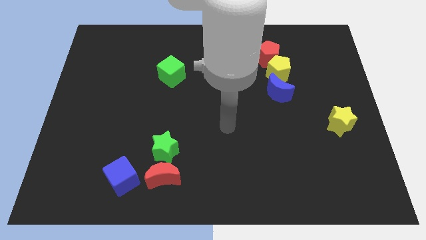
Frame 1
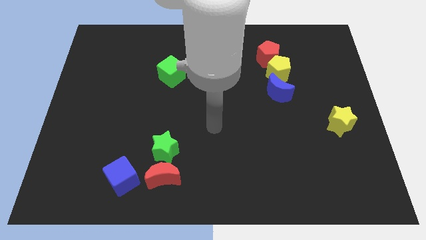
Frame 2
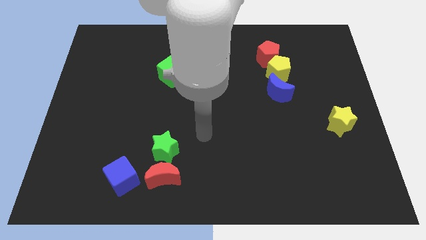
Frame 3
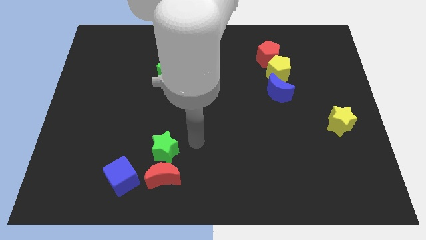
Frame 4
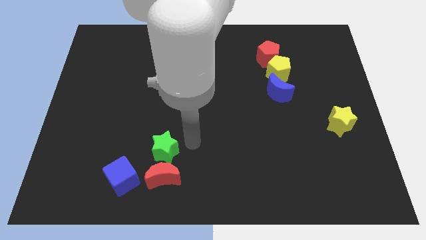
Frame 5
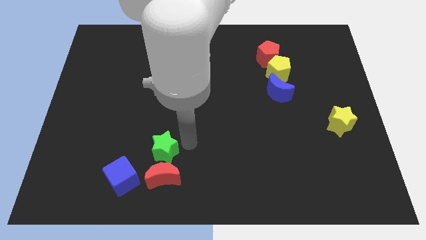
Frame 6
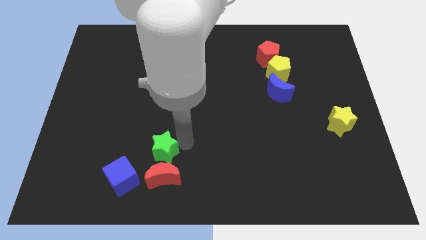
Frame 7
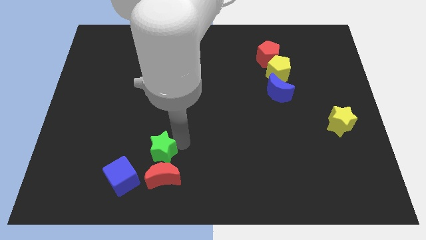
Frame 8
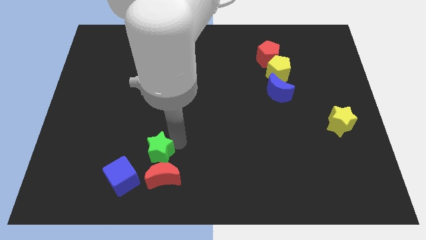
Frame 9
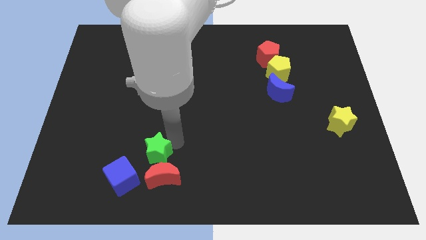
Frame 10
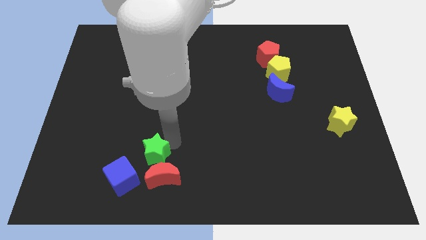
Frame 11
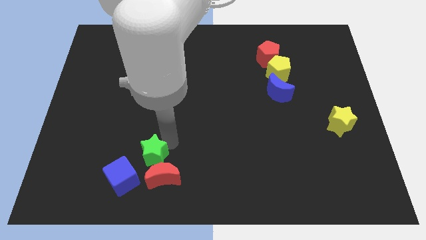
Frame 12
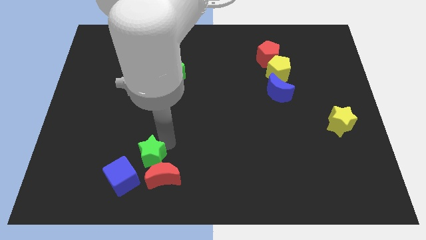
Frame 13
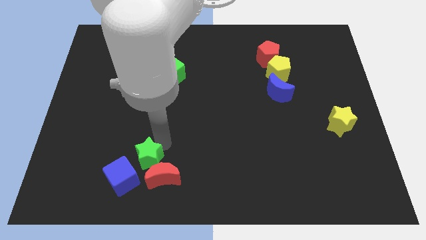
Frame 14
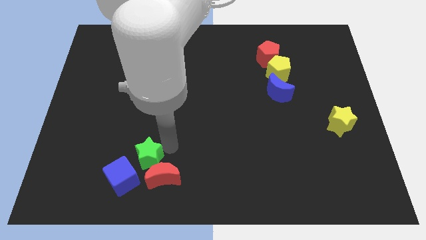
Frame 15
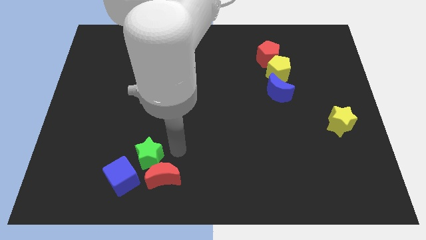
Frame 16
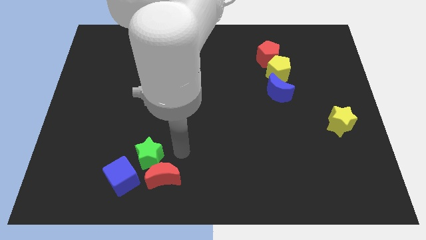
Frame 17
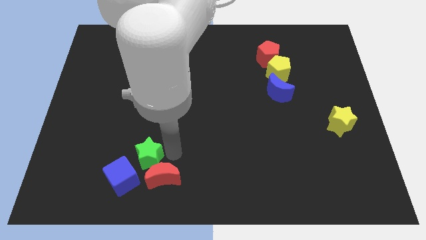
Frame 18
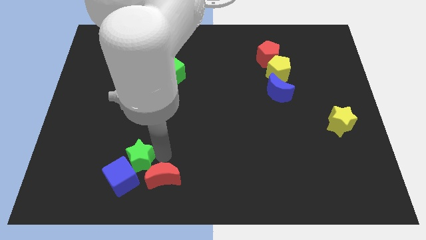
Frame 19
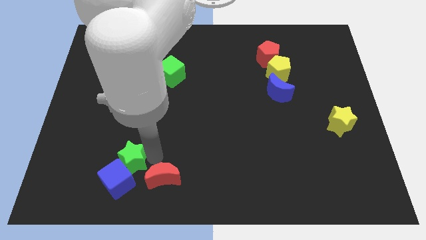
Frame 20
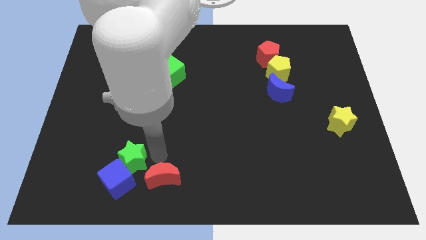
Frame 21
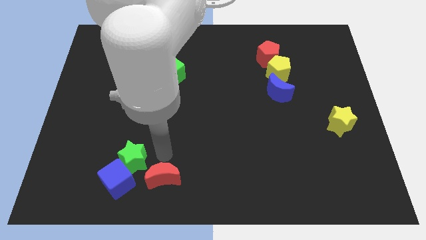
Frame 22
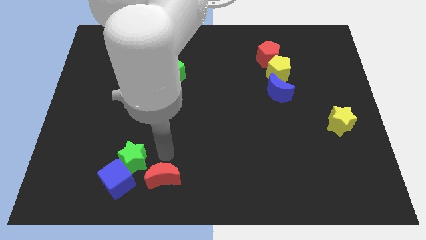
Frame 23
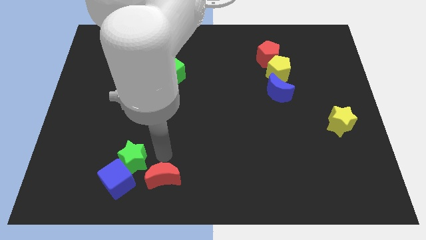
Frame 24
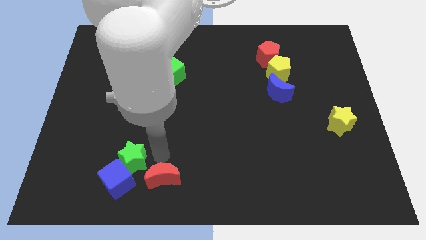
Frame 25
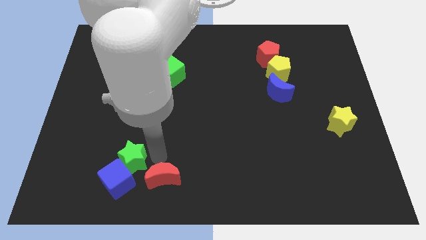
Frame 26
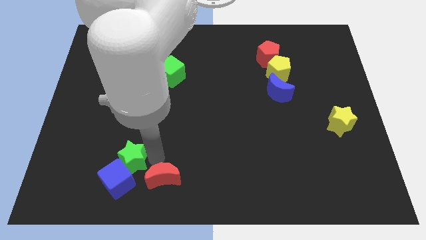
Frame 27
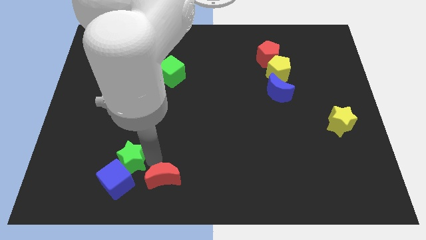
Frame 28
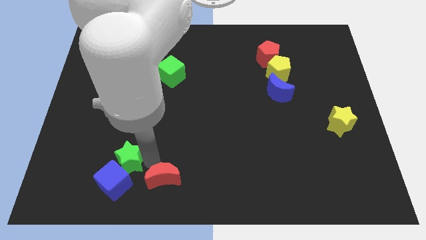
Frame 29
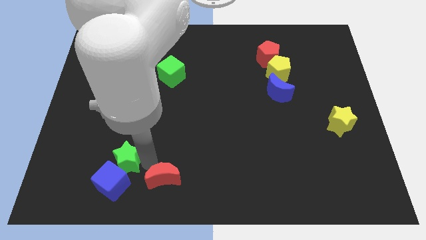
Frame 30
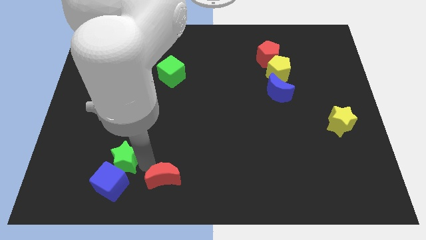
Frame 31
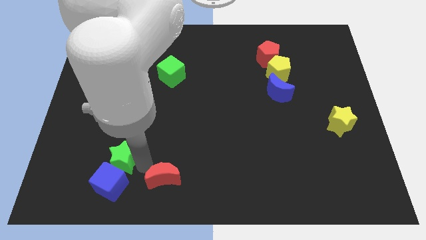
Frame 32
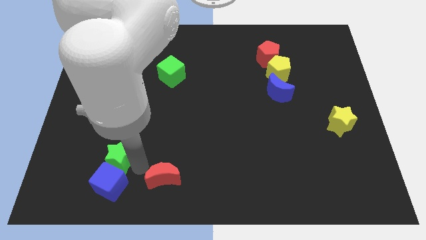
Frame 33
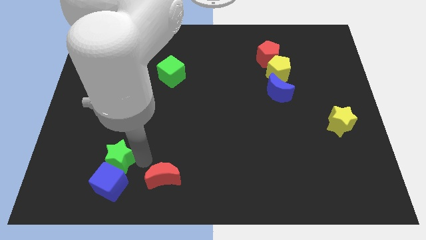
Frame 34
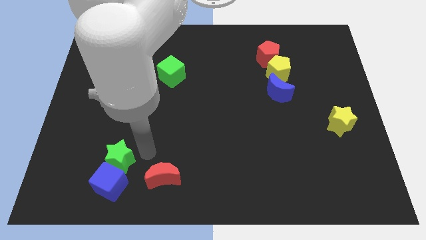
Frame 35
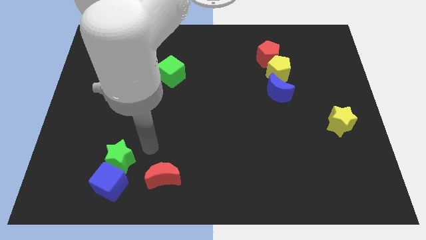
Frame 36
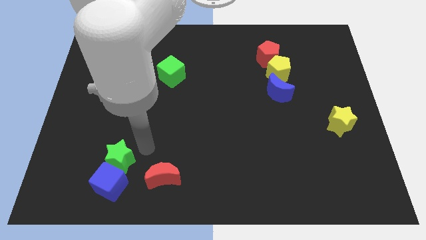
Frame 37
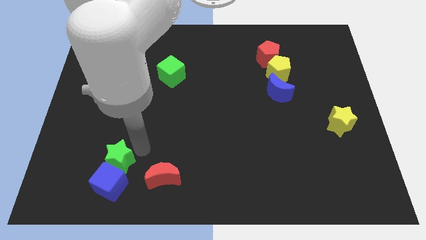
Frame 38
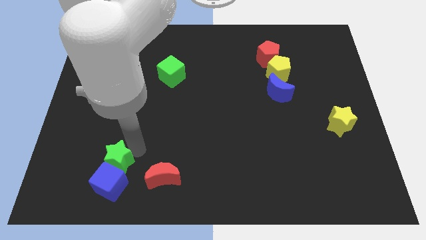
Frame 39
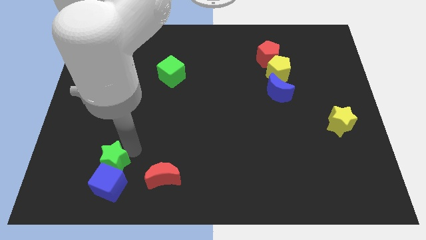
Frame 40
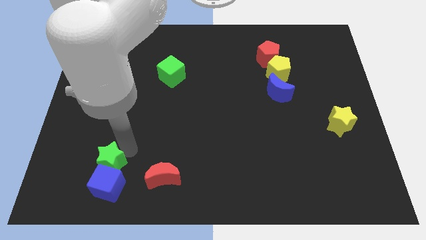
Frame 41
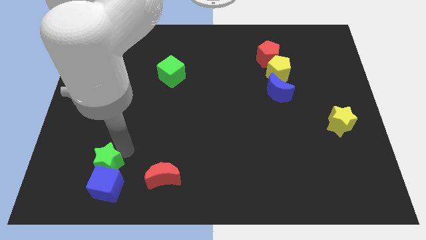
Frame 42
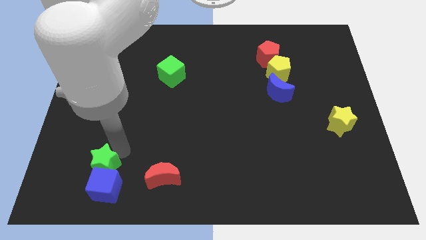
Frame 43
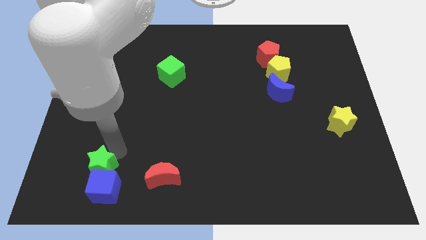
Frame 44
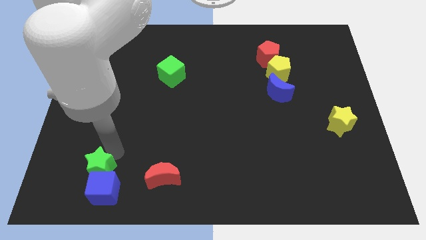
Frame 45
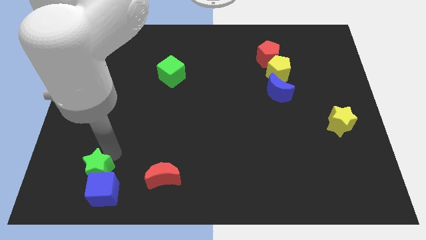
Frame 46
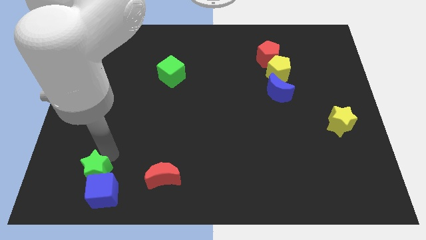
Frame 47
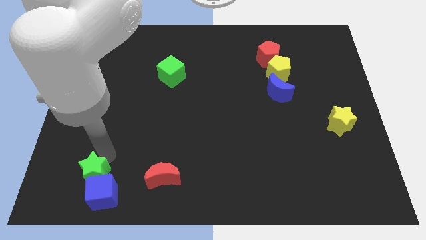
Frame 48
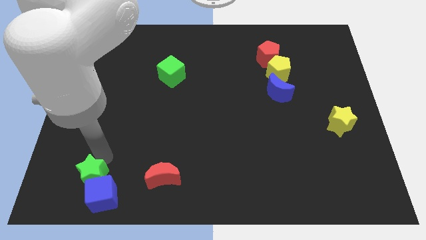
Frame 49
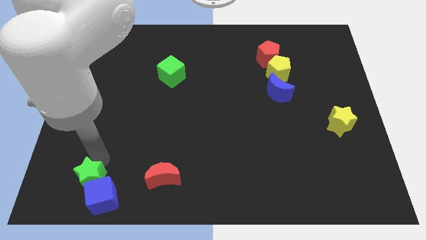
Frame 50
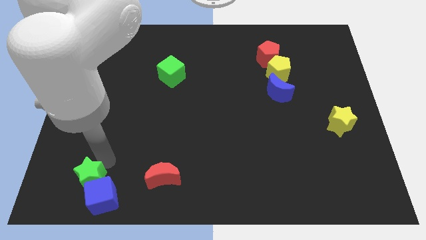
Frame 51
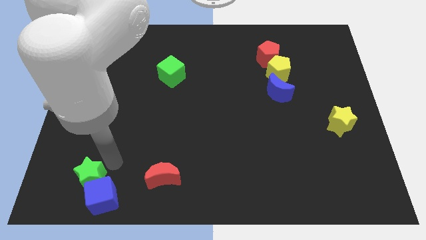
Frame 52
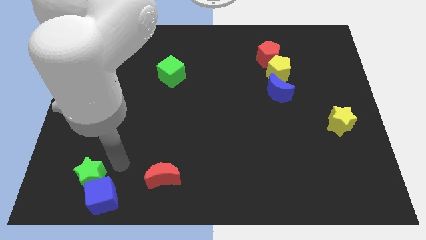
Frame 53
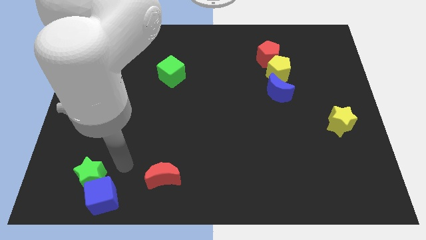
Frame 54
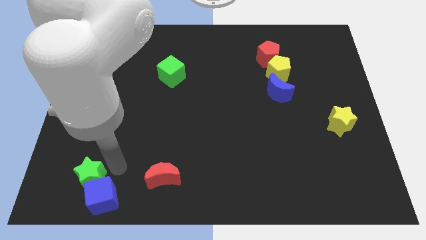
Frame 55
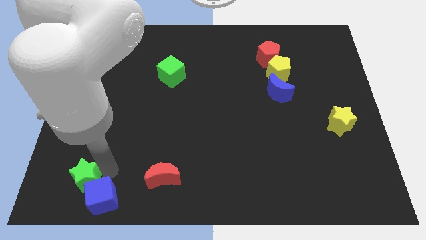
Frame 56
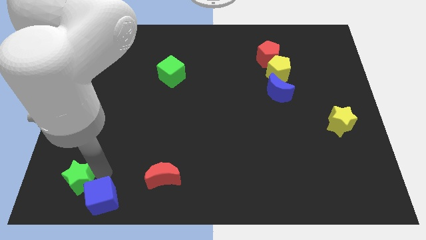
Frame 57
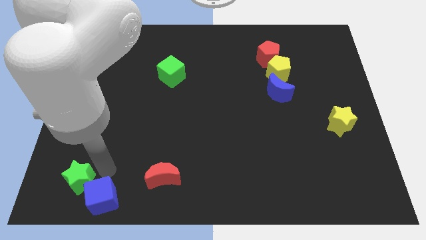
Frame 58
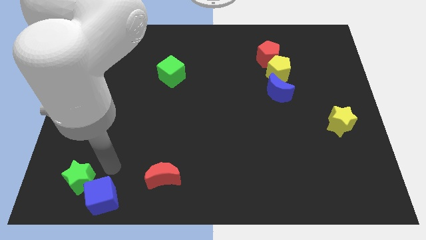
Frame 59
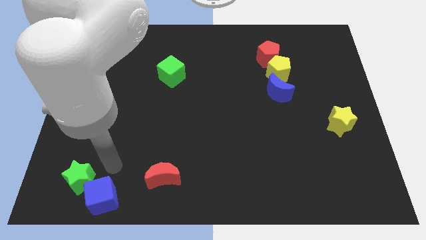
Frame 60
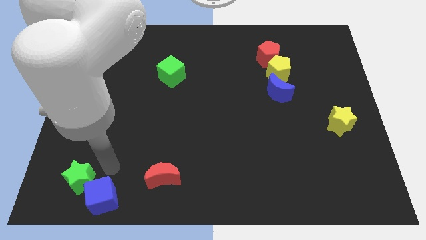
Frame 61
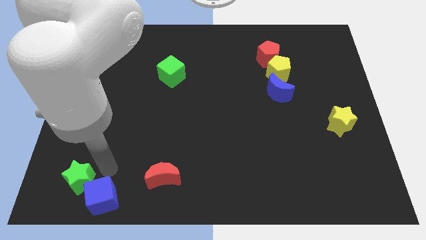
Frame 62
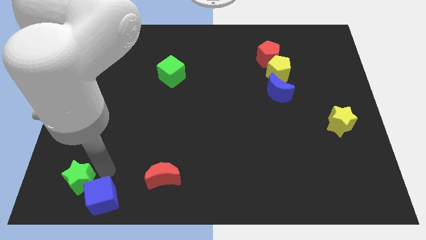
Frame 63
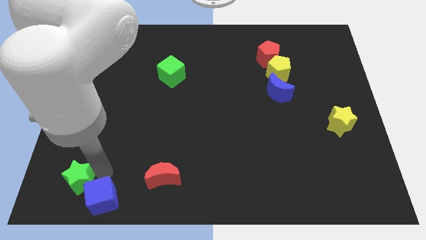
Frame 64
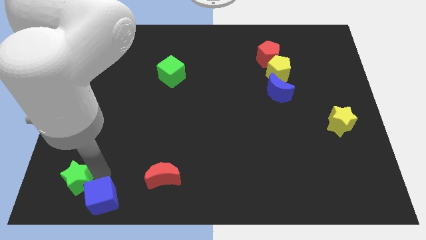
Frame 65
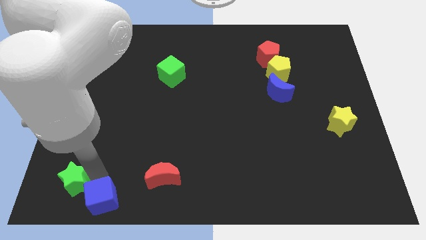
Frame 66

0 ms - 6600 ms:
slide the green star to the bottom left corner

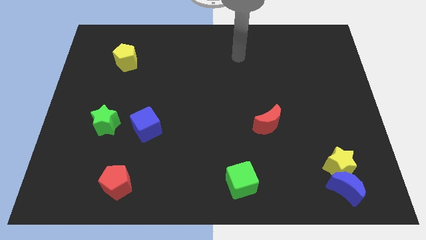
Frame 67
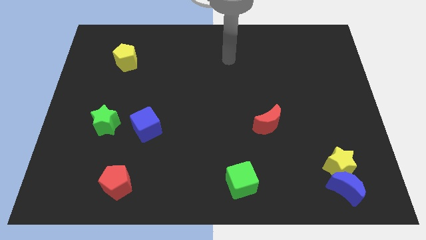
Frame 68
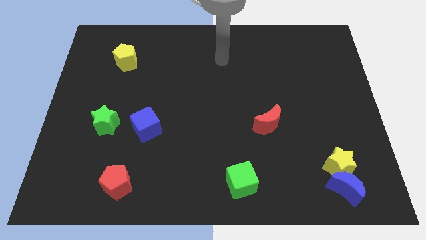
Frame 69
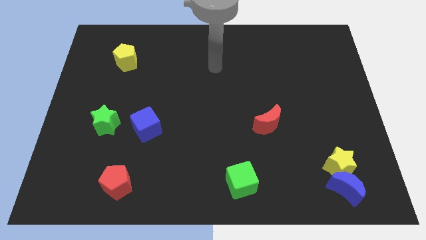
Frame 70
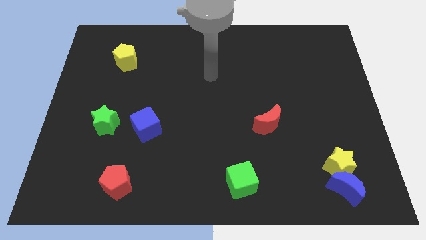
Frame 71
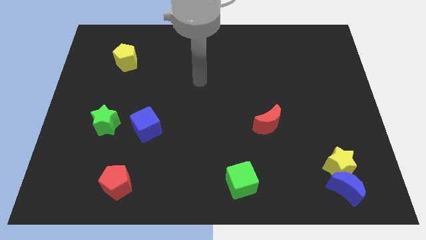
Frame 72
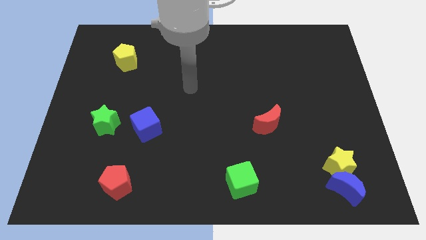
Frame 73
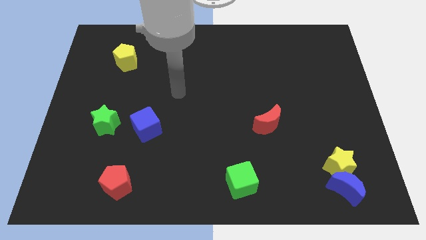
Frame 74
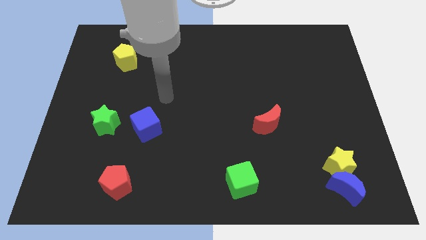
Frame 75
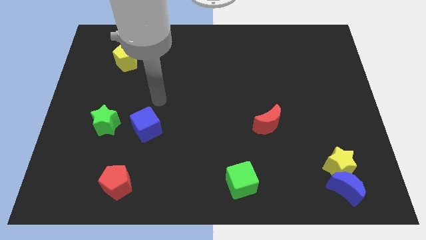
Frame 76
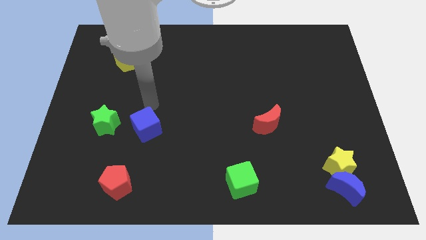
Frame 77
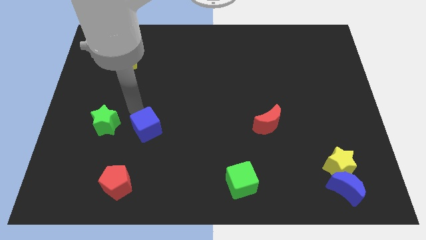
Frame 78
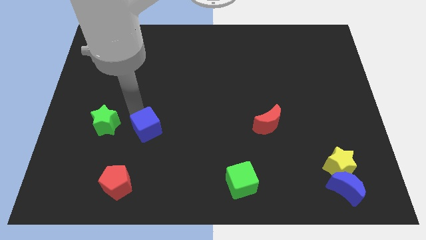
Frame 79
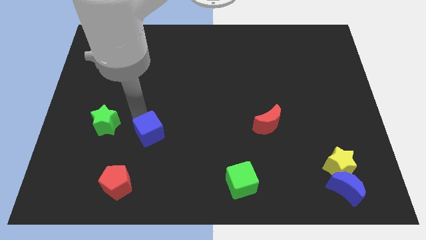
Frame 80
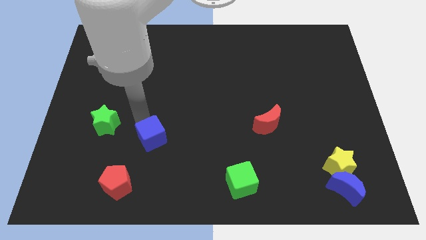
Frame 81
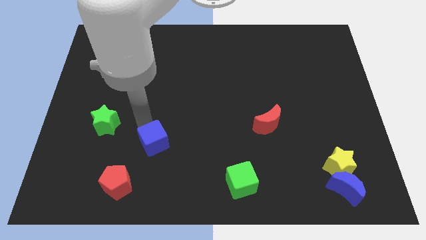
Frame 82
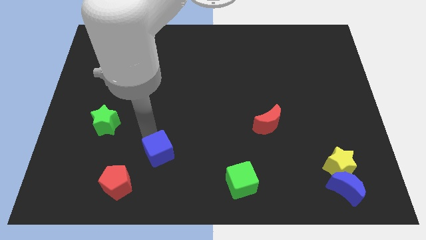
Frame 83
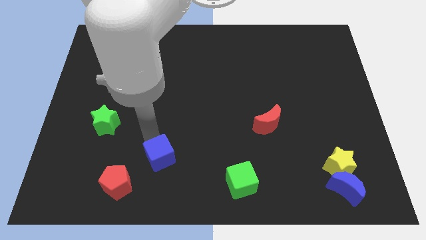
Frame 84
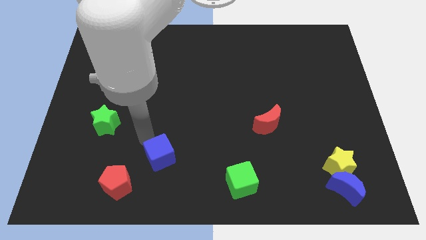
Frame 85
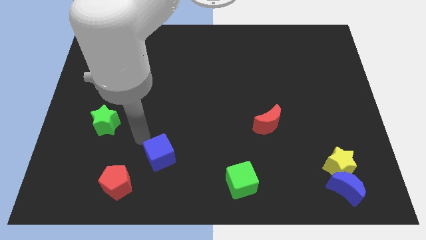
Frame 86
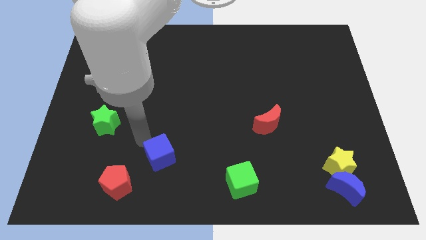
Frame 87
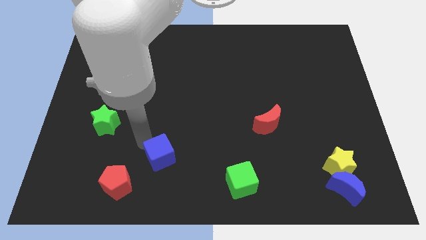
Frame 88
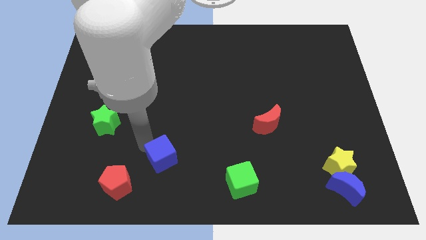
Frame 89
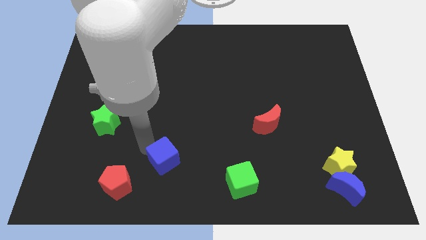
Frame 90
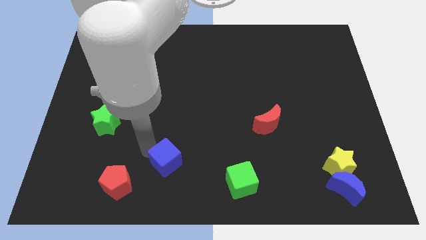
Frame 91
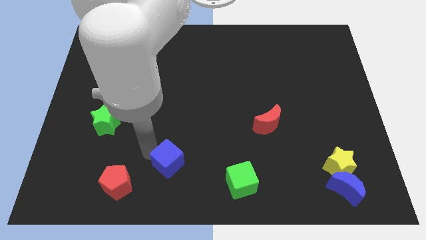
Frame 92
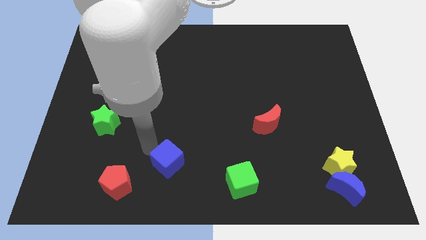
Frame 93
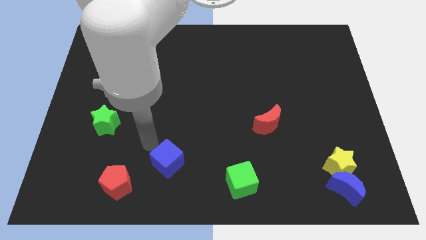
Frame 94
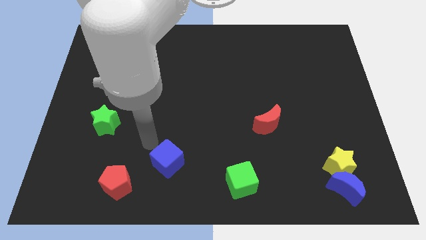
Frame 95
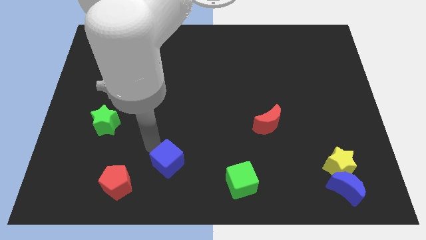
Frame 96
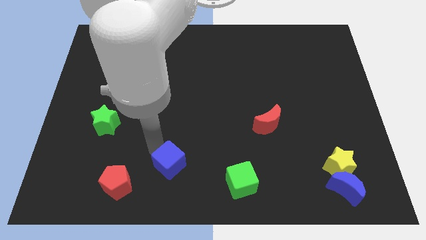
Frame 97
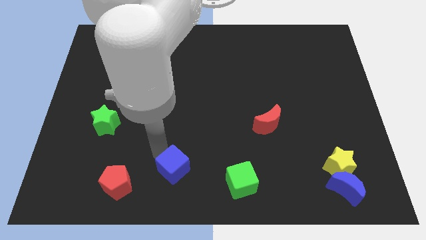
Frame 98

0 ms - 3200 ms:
push the blue cube to the bottom
